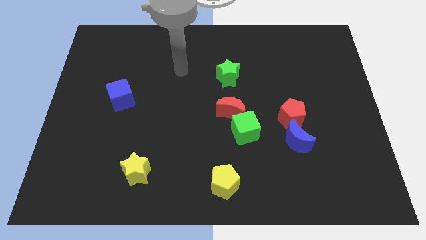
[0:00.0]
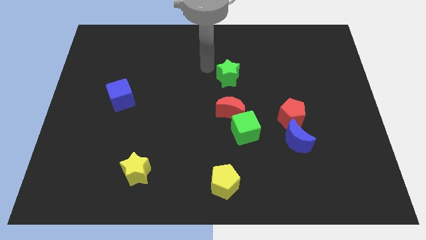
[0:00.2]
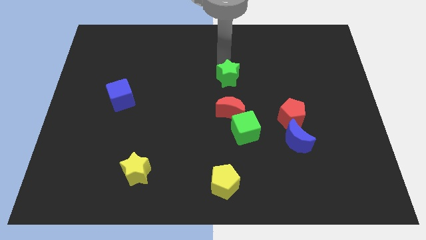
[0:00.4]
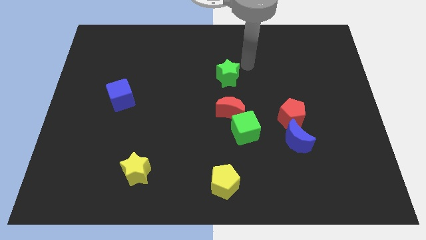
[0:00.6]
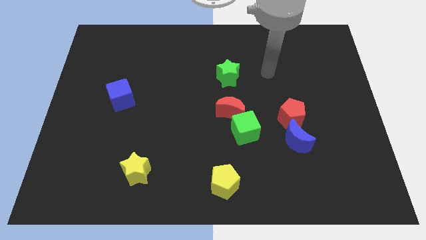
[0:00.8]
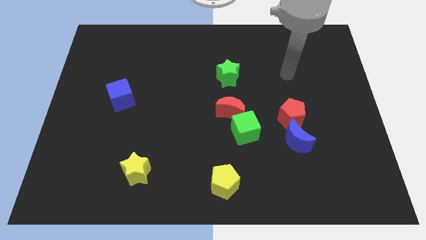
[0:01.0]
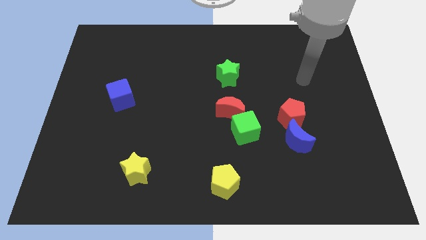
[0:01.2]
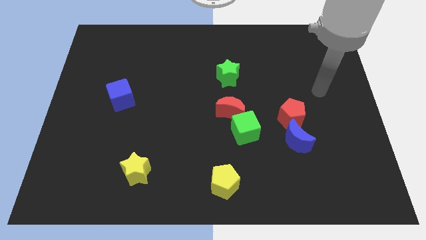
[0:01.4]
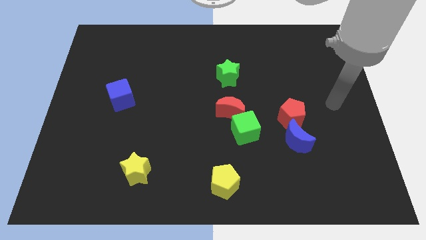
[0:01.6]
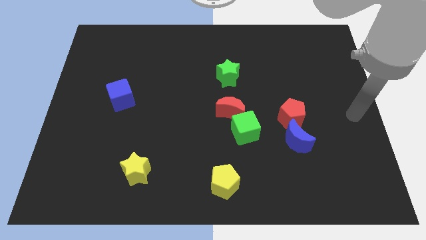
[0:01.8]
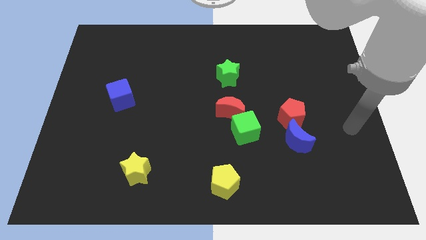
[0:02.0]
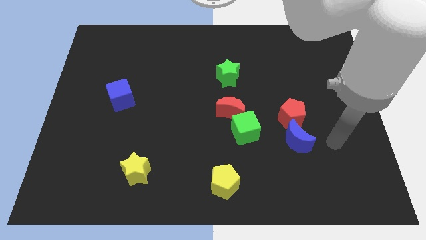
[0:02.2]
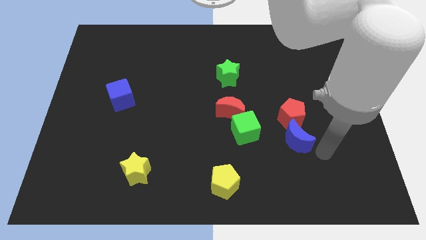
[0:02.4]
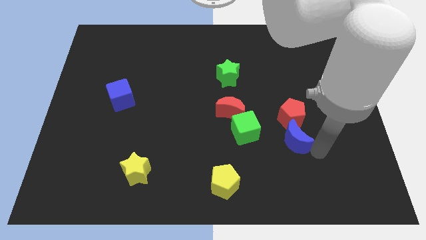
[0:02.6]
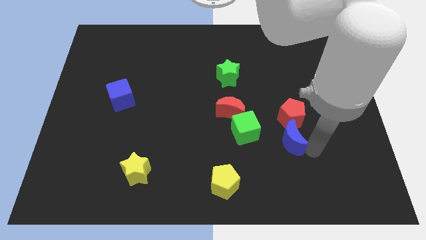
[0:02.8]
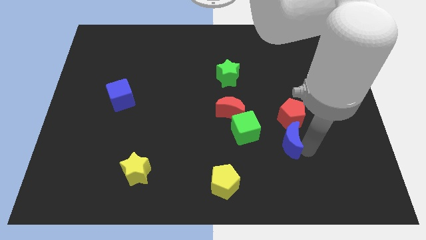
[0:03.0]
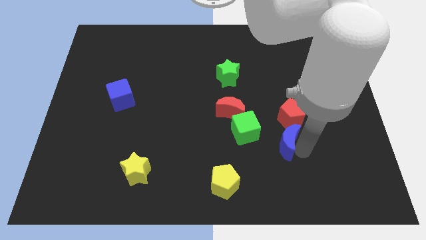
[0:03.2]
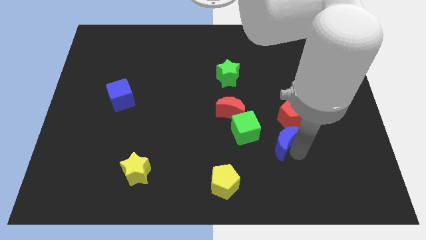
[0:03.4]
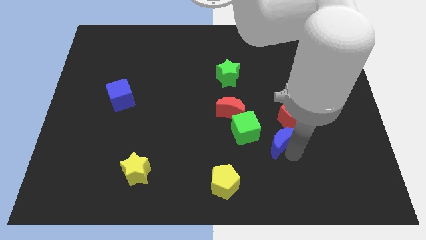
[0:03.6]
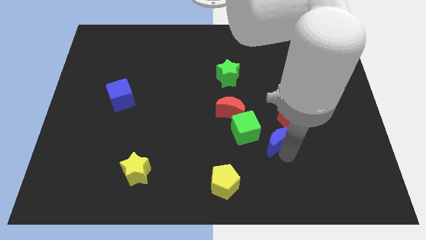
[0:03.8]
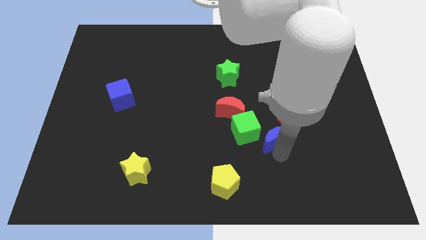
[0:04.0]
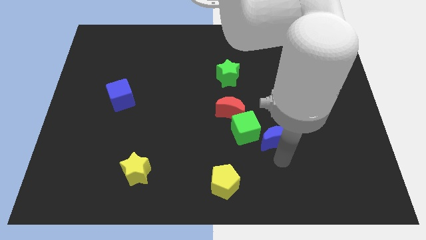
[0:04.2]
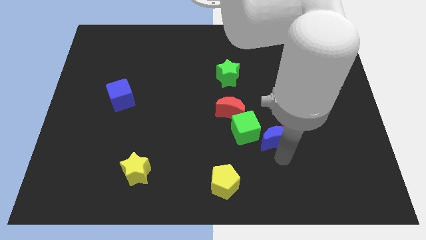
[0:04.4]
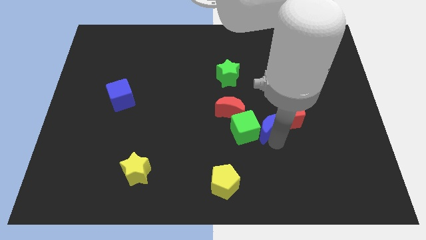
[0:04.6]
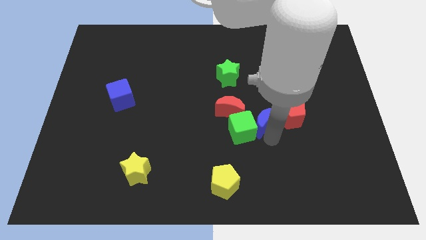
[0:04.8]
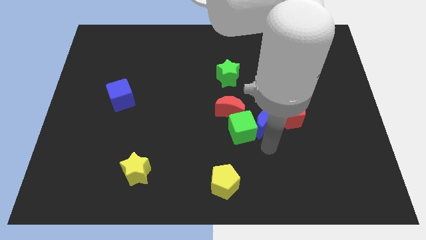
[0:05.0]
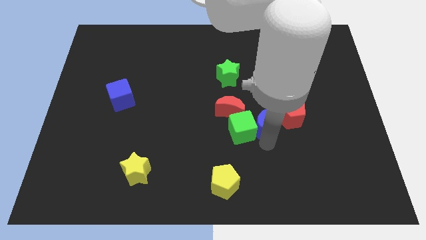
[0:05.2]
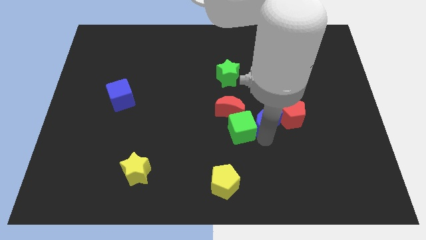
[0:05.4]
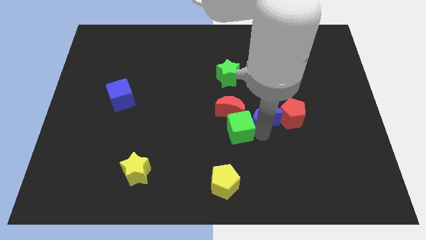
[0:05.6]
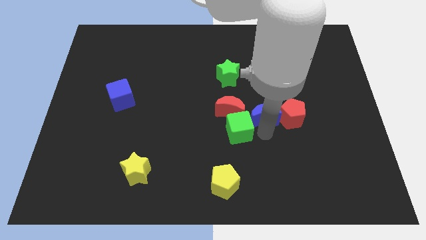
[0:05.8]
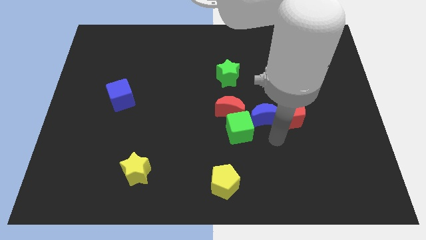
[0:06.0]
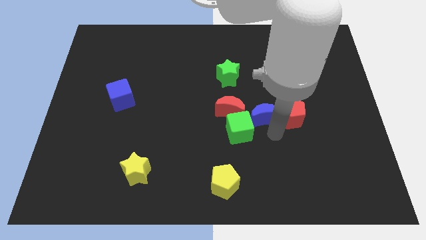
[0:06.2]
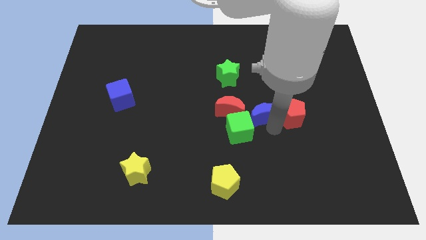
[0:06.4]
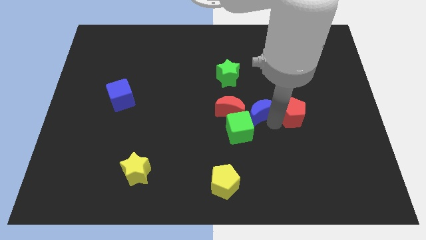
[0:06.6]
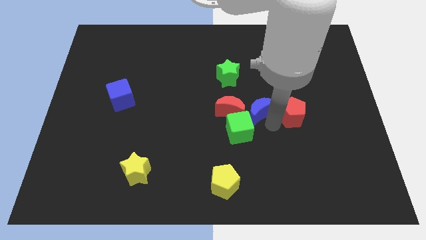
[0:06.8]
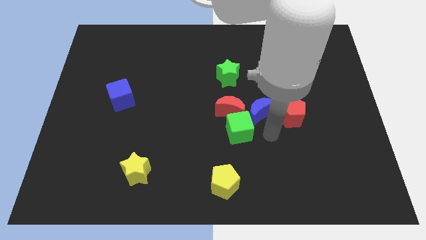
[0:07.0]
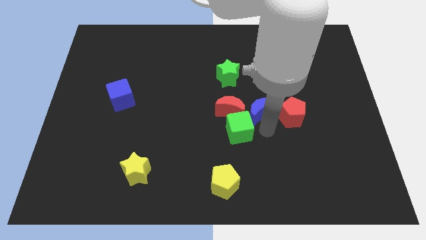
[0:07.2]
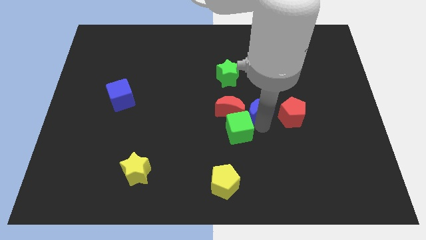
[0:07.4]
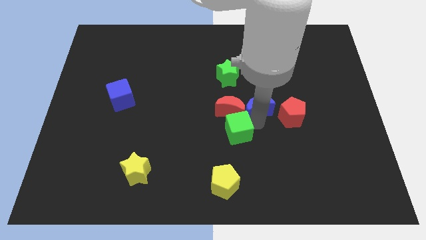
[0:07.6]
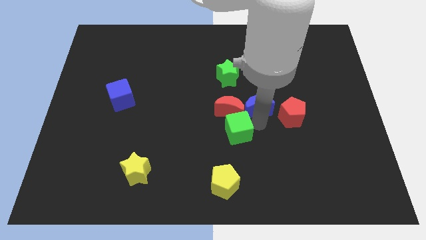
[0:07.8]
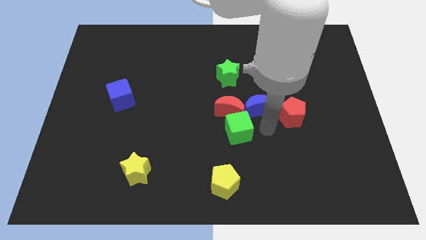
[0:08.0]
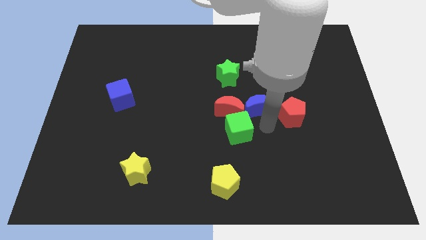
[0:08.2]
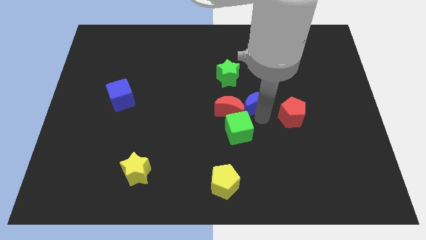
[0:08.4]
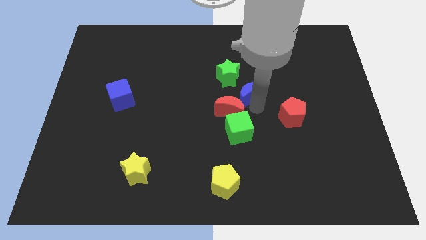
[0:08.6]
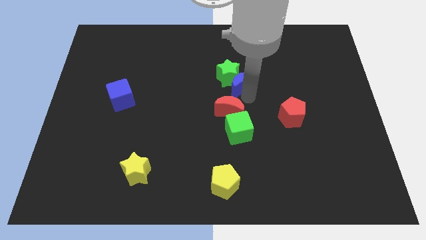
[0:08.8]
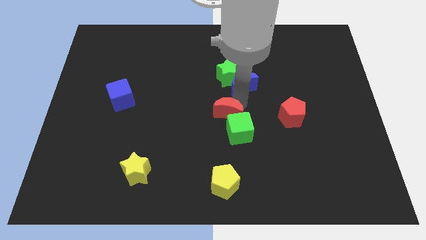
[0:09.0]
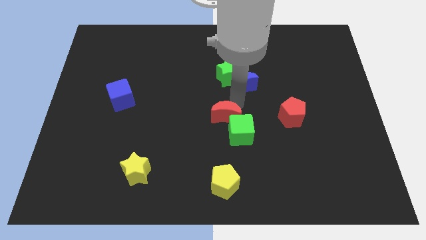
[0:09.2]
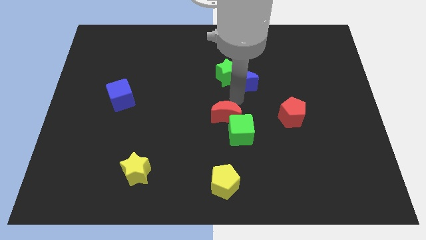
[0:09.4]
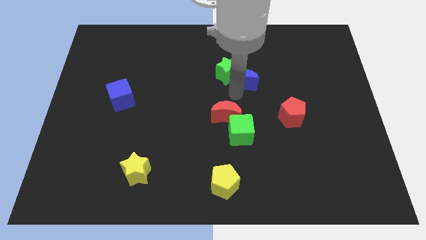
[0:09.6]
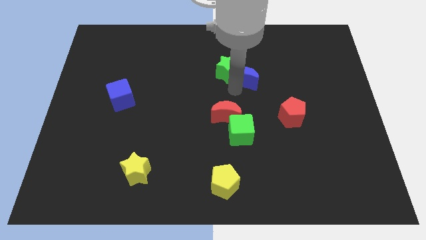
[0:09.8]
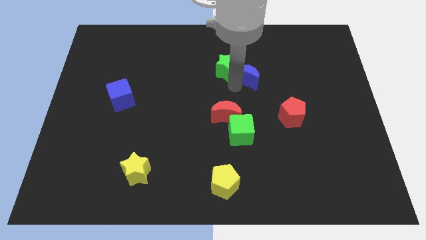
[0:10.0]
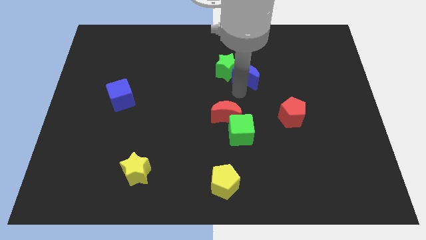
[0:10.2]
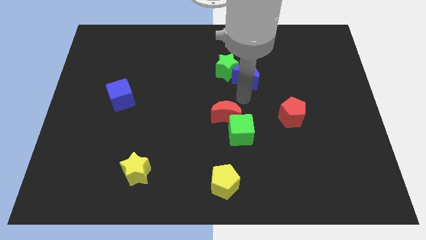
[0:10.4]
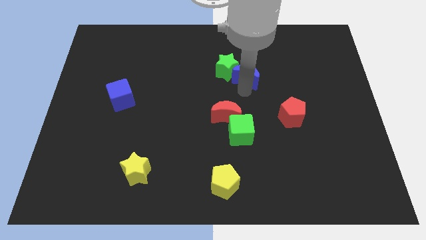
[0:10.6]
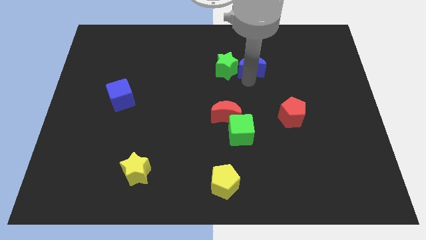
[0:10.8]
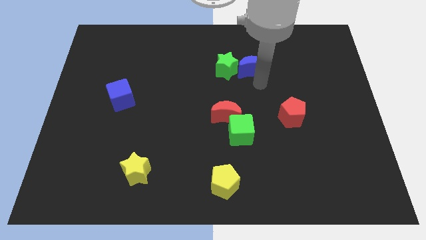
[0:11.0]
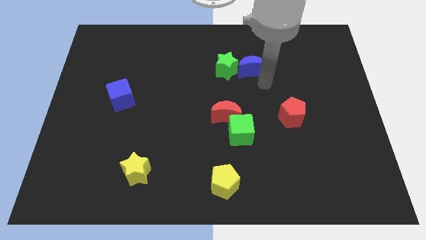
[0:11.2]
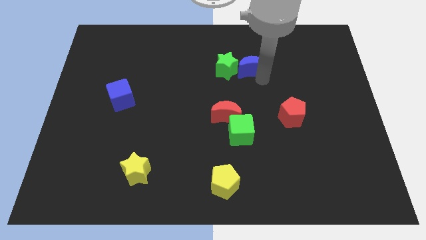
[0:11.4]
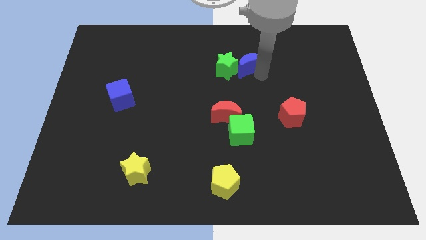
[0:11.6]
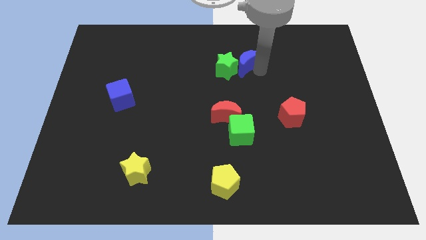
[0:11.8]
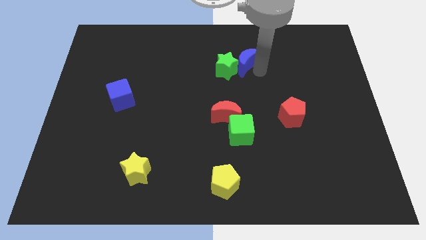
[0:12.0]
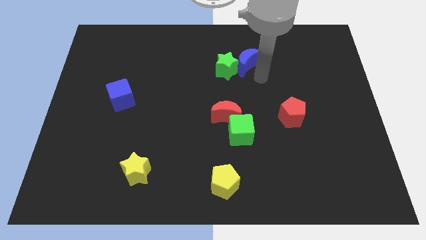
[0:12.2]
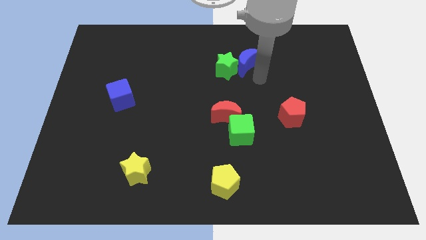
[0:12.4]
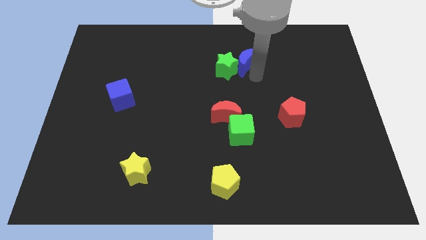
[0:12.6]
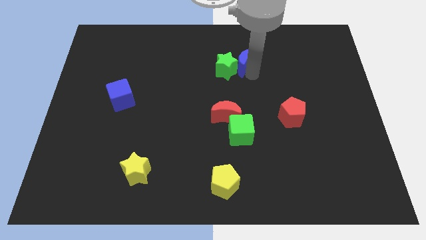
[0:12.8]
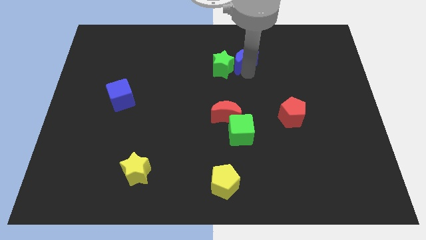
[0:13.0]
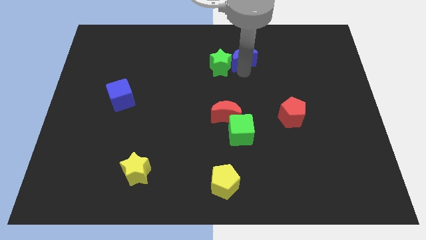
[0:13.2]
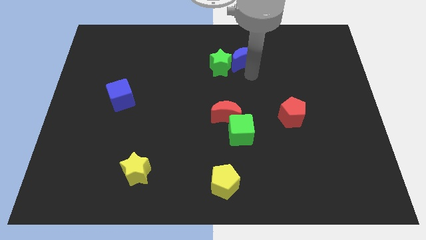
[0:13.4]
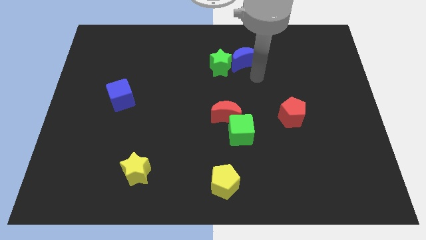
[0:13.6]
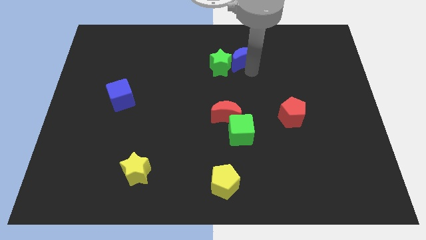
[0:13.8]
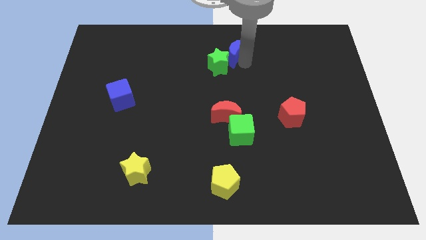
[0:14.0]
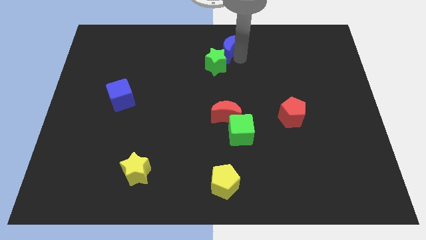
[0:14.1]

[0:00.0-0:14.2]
slide the blue moon to the top
